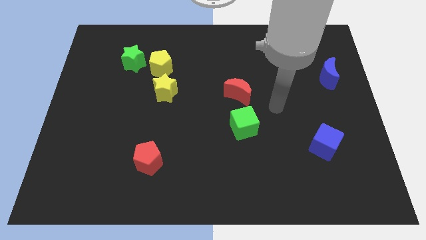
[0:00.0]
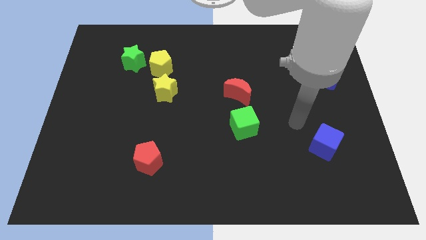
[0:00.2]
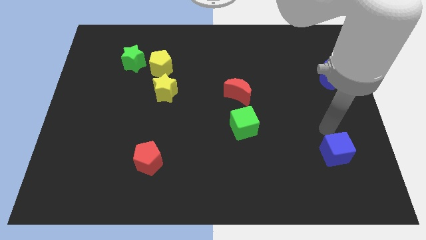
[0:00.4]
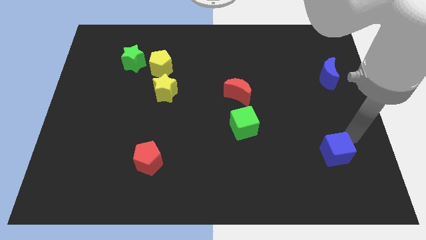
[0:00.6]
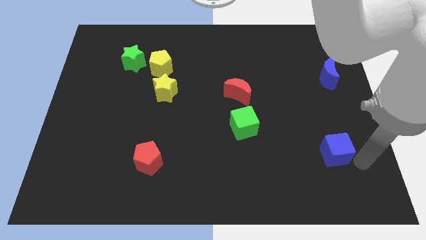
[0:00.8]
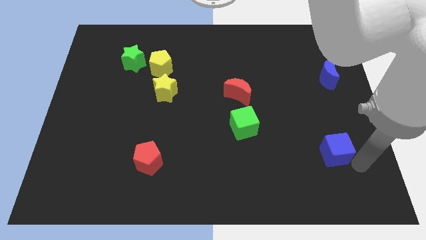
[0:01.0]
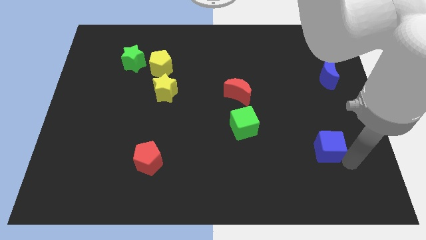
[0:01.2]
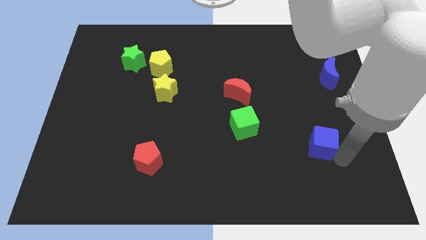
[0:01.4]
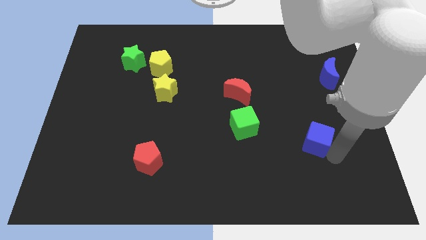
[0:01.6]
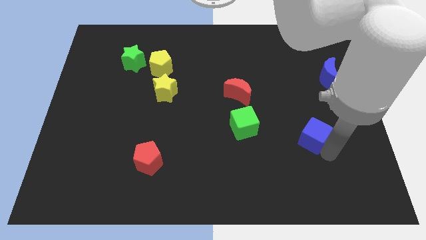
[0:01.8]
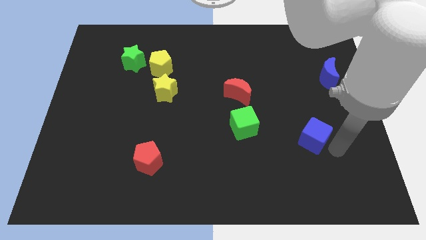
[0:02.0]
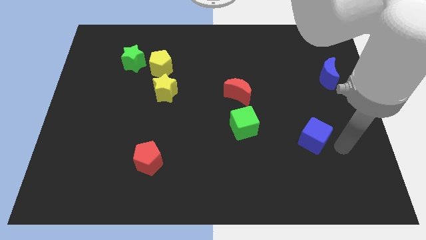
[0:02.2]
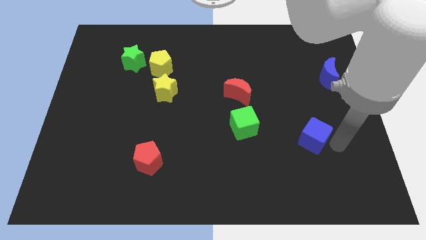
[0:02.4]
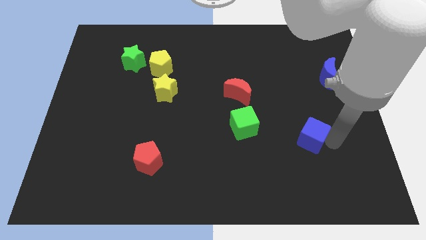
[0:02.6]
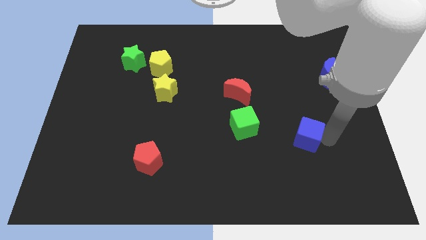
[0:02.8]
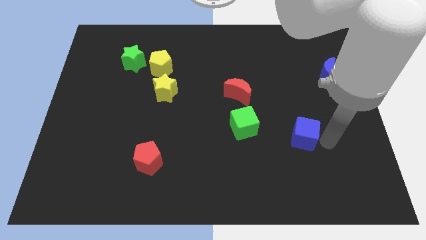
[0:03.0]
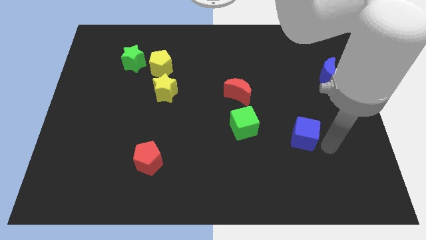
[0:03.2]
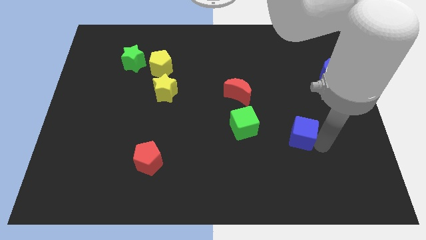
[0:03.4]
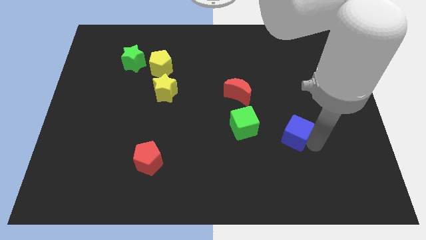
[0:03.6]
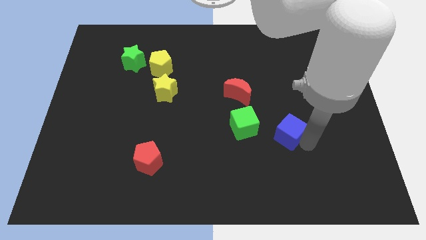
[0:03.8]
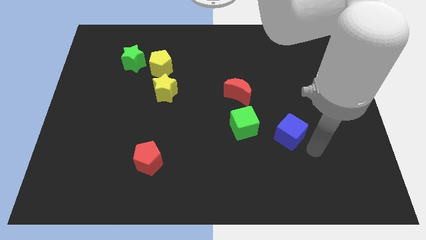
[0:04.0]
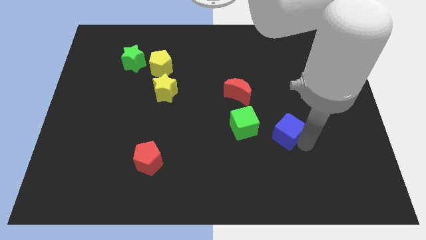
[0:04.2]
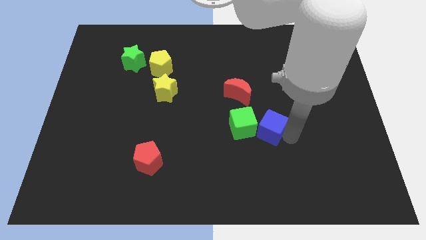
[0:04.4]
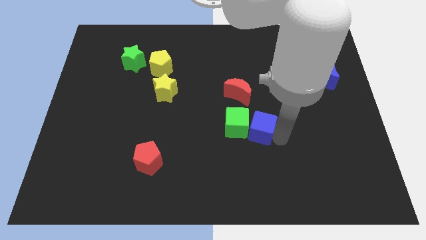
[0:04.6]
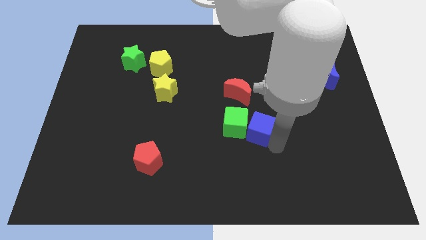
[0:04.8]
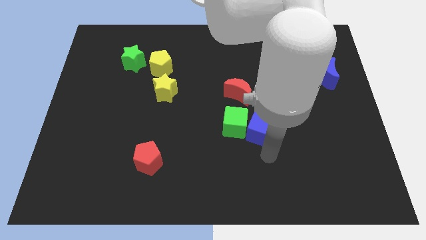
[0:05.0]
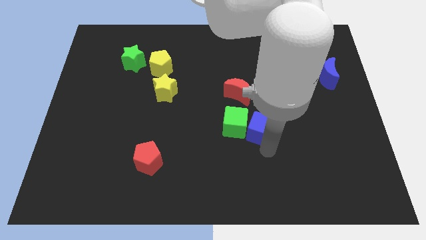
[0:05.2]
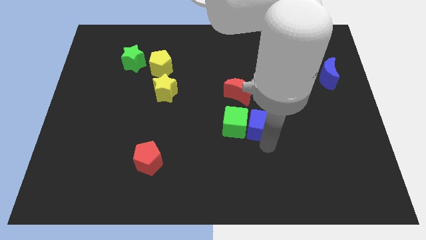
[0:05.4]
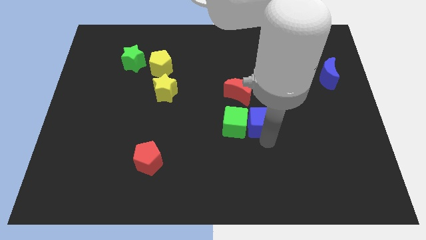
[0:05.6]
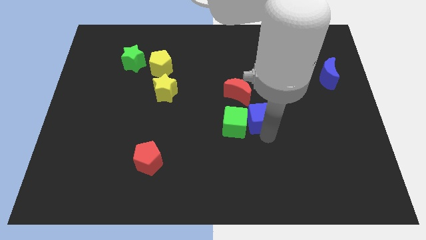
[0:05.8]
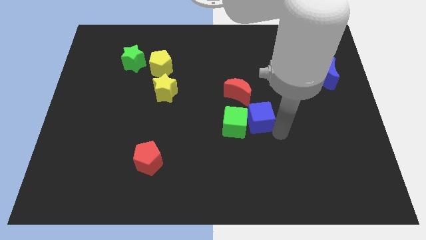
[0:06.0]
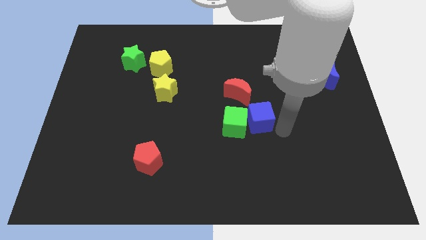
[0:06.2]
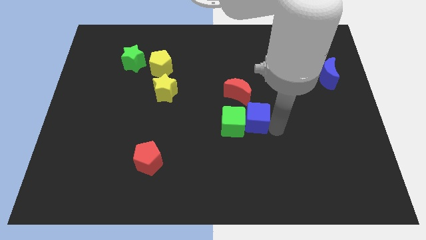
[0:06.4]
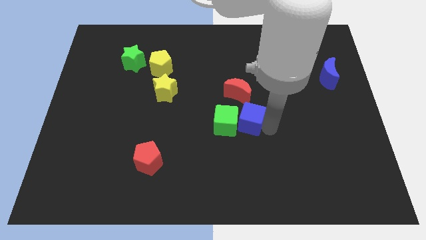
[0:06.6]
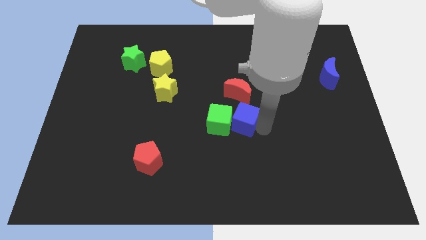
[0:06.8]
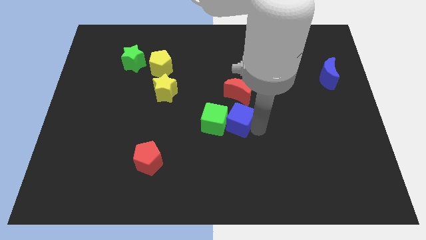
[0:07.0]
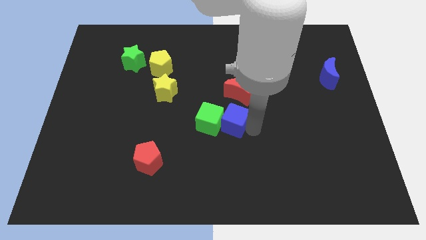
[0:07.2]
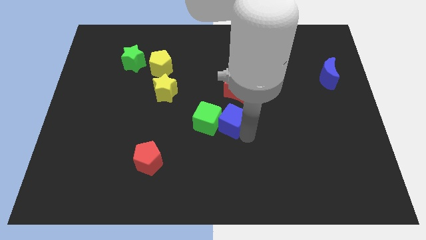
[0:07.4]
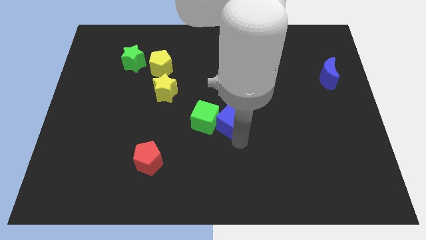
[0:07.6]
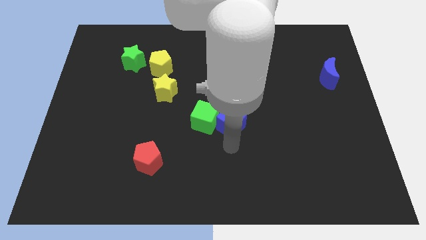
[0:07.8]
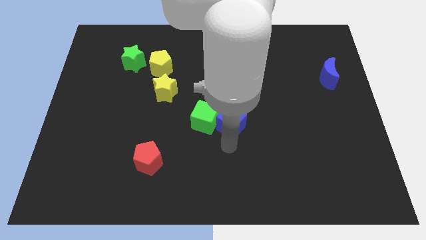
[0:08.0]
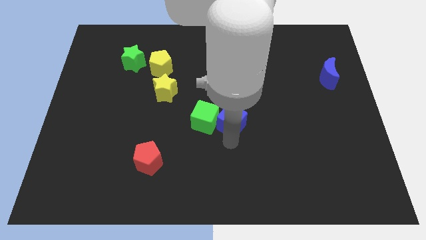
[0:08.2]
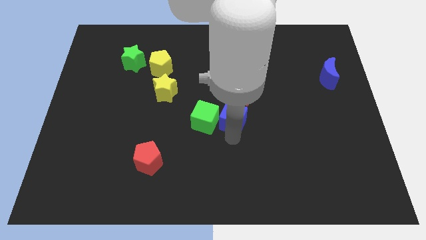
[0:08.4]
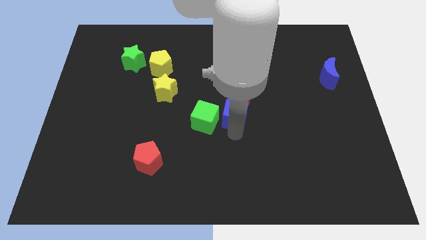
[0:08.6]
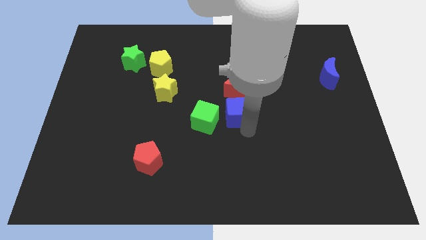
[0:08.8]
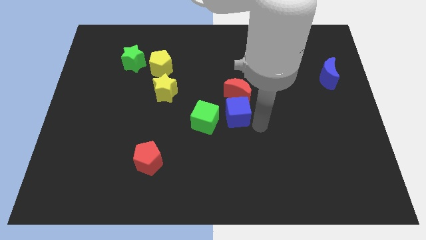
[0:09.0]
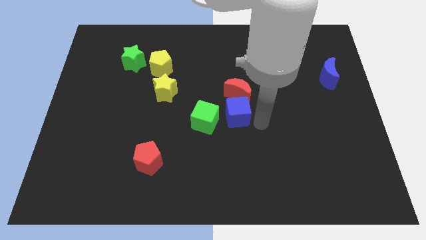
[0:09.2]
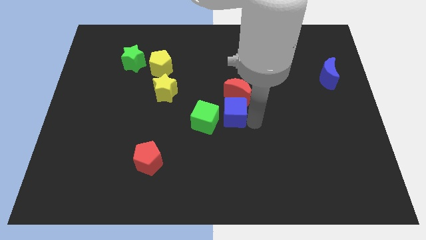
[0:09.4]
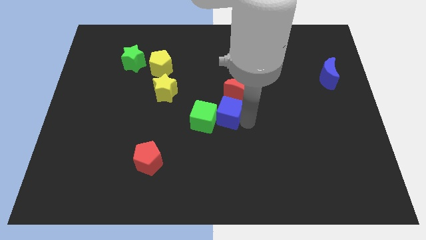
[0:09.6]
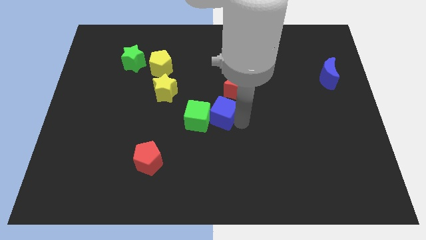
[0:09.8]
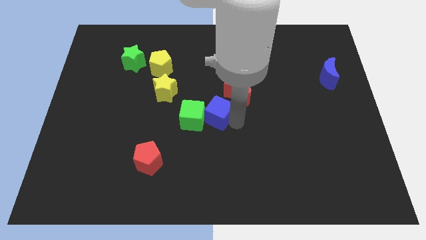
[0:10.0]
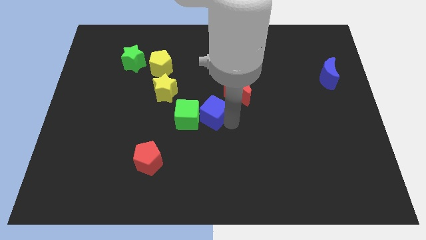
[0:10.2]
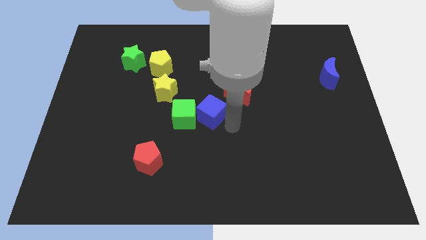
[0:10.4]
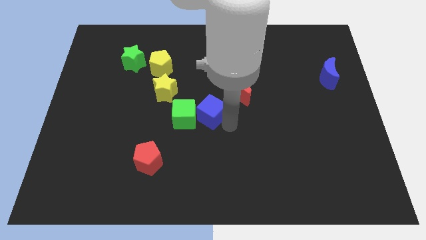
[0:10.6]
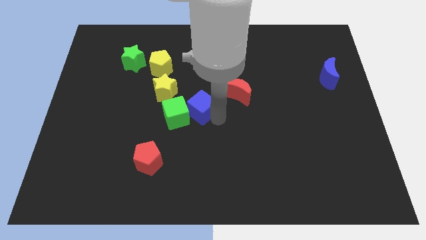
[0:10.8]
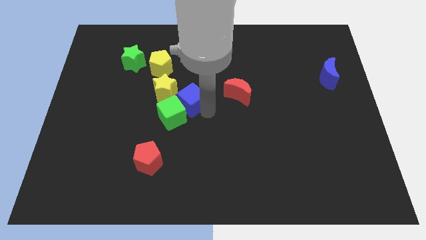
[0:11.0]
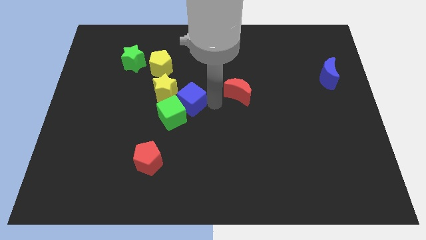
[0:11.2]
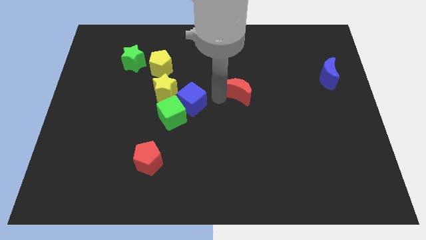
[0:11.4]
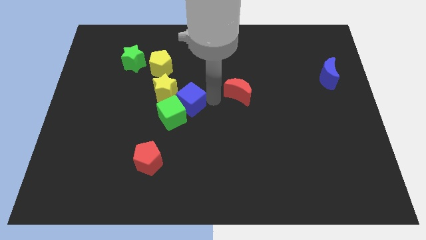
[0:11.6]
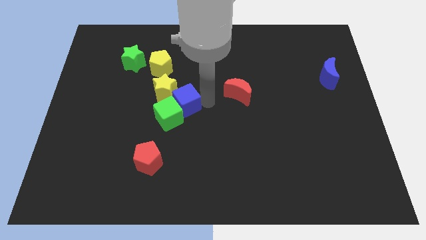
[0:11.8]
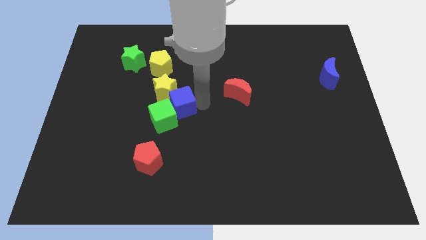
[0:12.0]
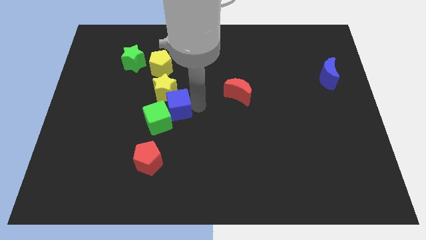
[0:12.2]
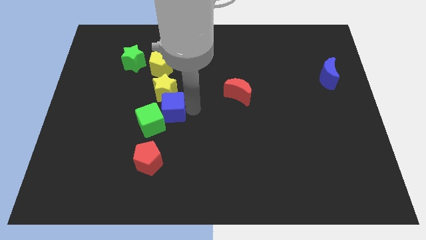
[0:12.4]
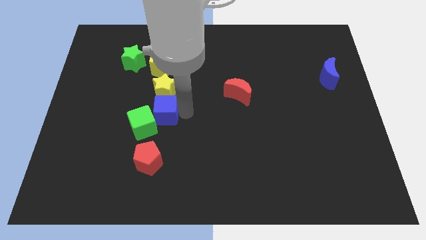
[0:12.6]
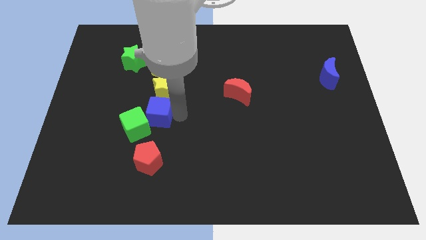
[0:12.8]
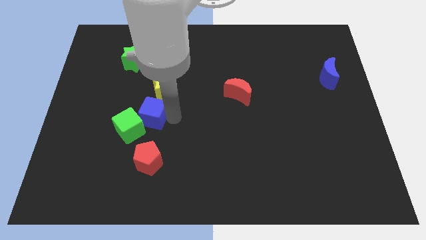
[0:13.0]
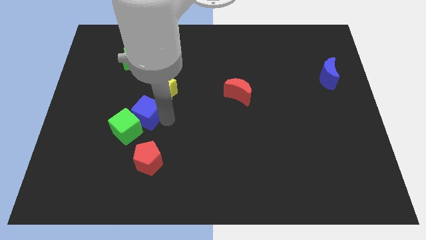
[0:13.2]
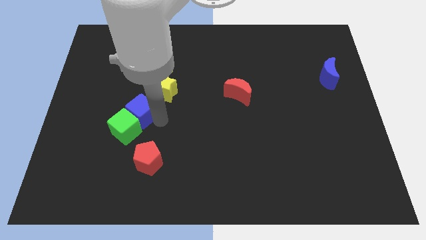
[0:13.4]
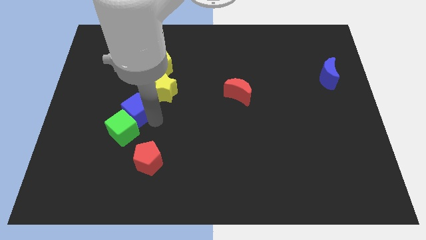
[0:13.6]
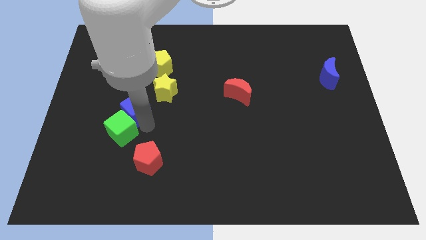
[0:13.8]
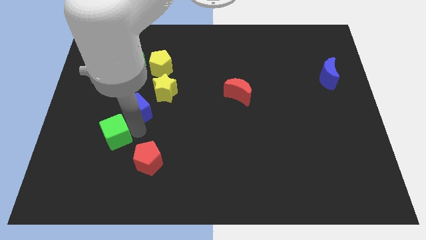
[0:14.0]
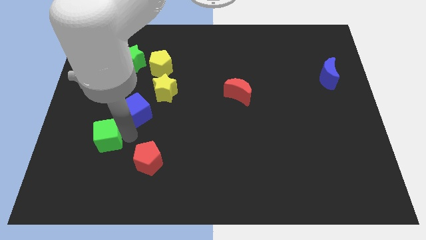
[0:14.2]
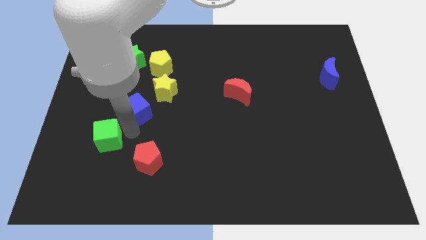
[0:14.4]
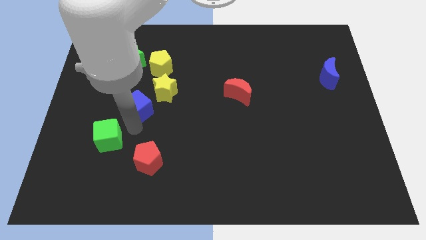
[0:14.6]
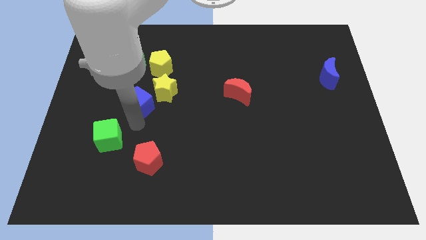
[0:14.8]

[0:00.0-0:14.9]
move the blue cube just left of the yellow star
